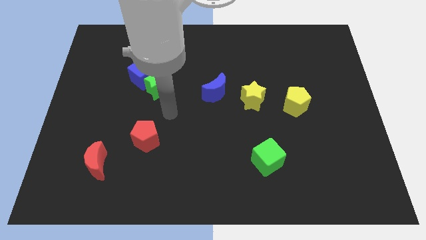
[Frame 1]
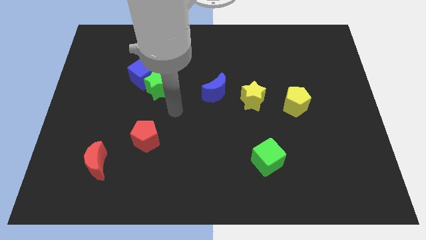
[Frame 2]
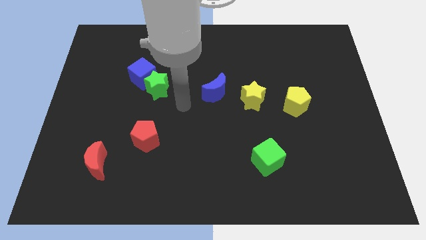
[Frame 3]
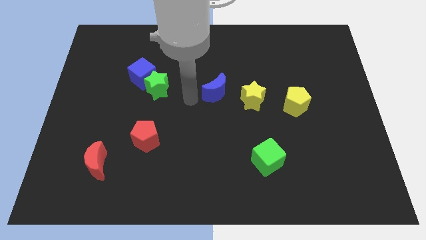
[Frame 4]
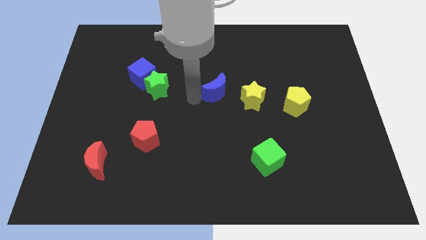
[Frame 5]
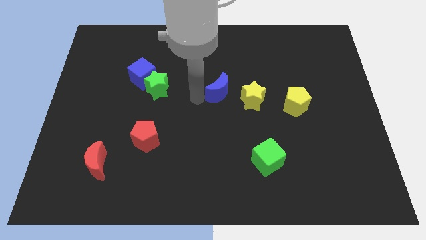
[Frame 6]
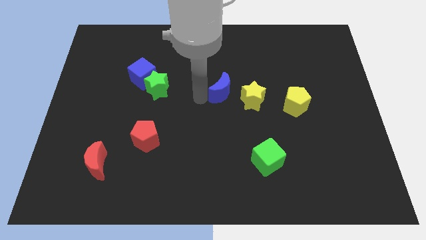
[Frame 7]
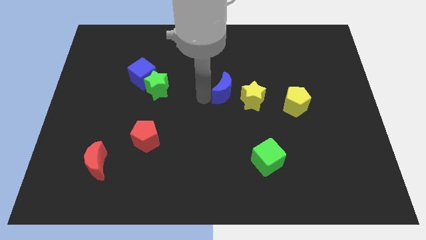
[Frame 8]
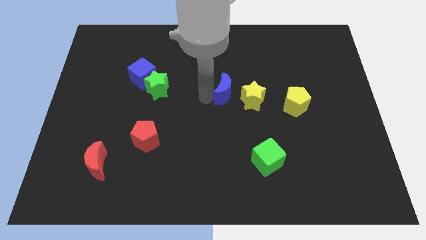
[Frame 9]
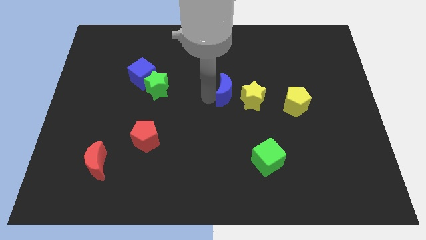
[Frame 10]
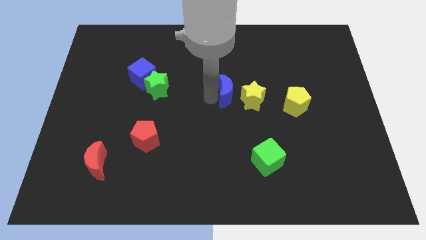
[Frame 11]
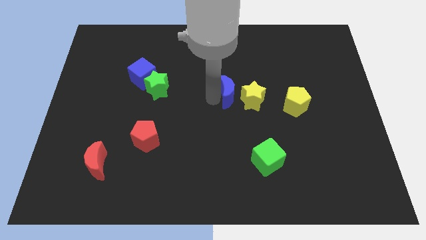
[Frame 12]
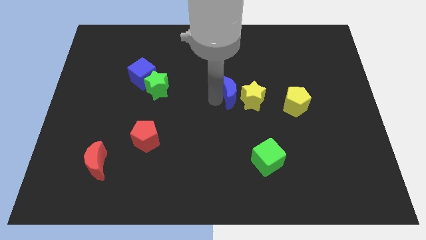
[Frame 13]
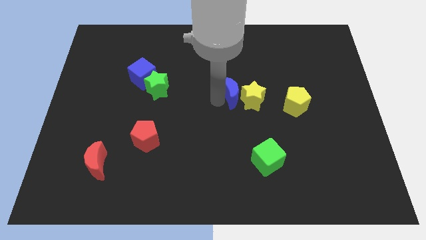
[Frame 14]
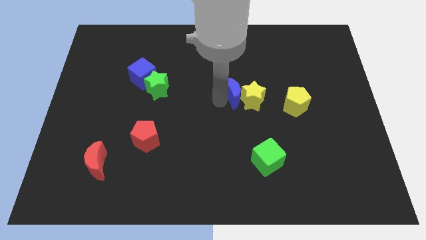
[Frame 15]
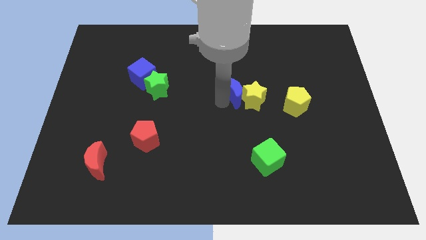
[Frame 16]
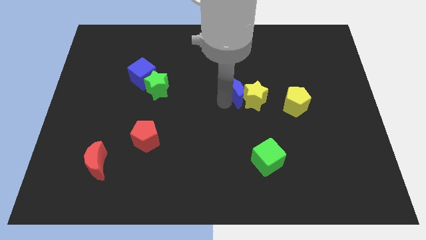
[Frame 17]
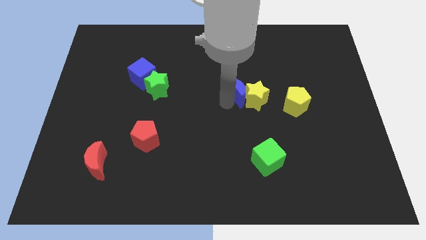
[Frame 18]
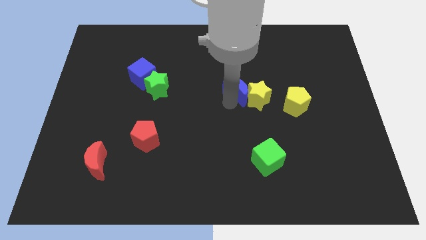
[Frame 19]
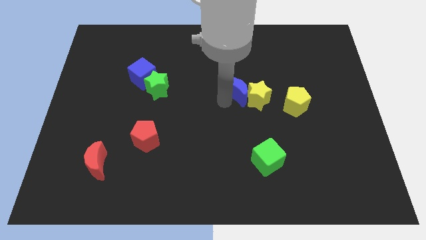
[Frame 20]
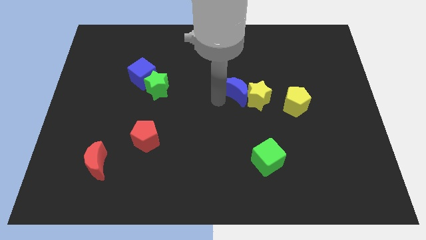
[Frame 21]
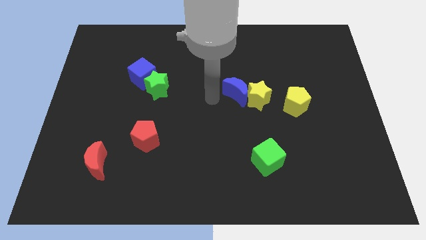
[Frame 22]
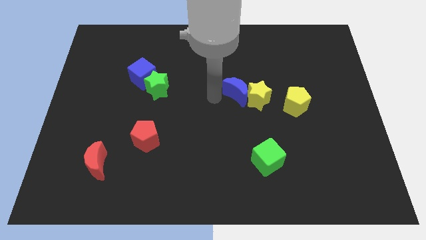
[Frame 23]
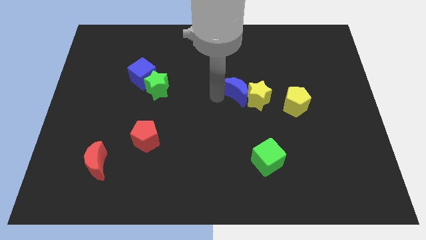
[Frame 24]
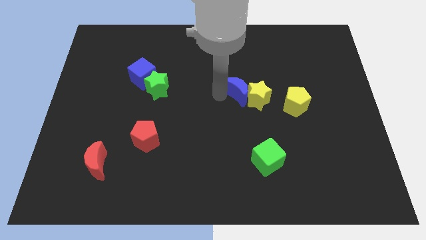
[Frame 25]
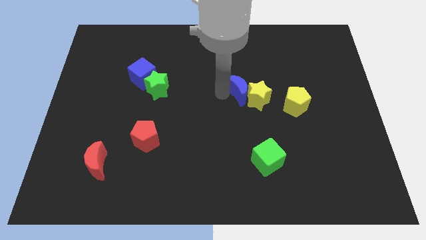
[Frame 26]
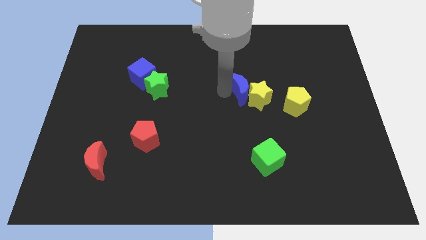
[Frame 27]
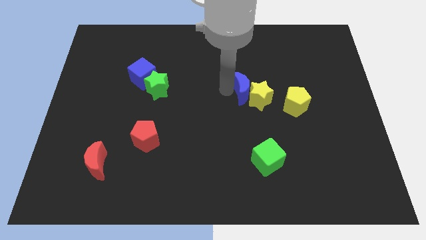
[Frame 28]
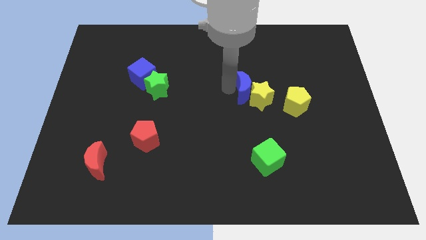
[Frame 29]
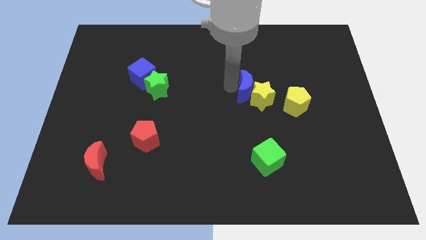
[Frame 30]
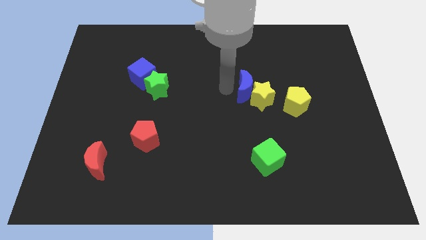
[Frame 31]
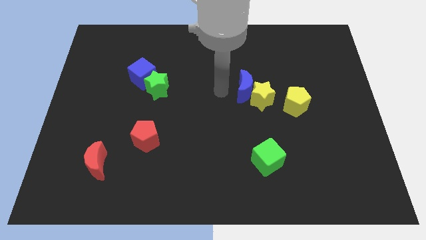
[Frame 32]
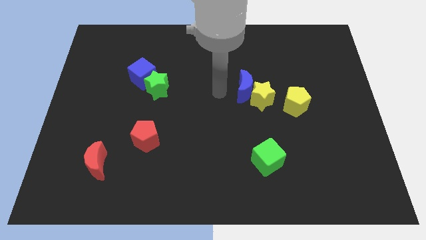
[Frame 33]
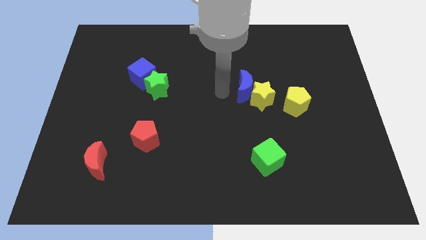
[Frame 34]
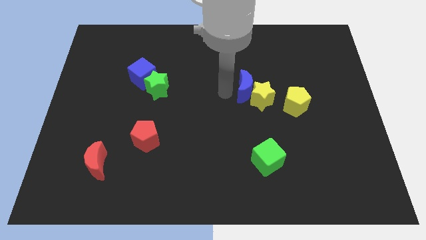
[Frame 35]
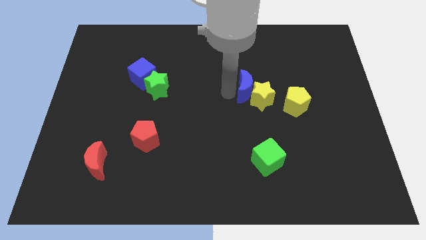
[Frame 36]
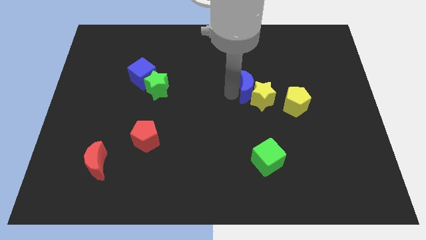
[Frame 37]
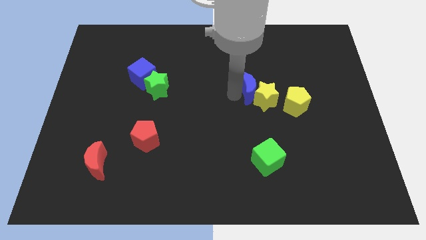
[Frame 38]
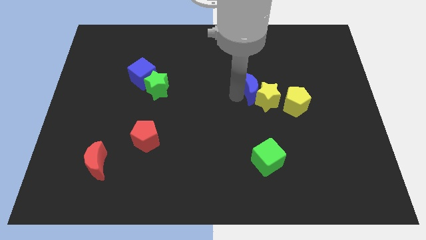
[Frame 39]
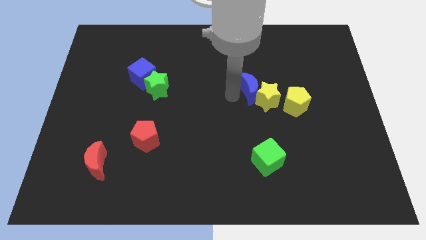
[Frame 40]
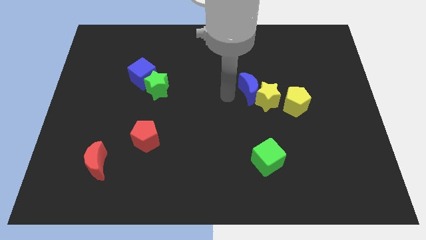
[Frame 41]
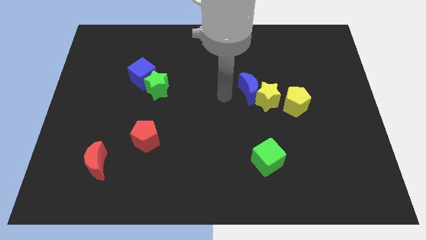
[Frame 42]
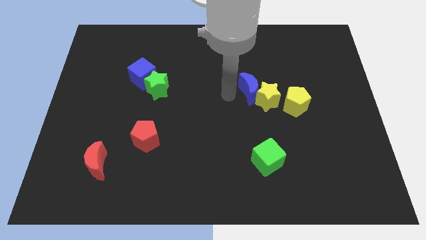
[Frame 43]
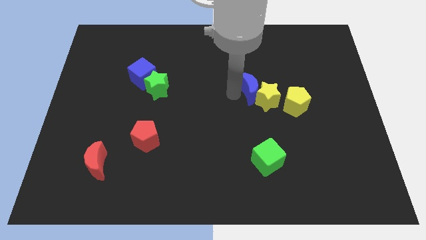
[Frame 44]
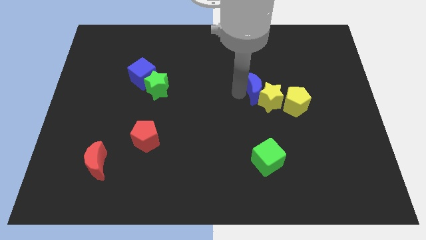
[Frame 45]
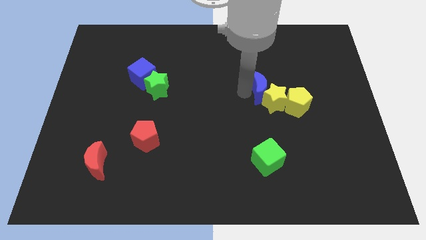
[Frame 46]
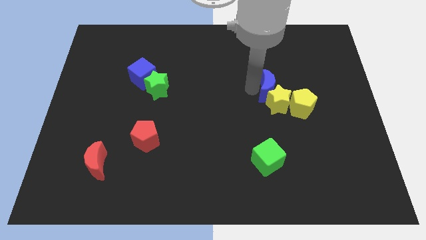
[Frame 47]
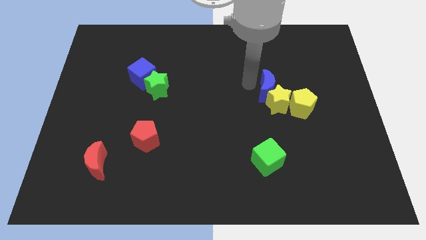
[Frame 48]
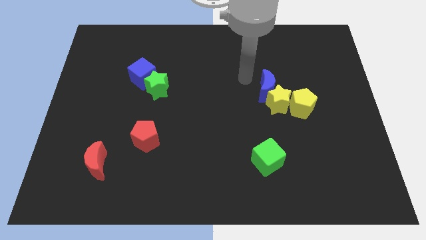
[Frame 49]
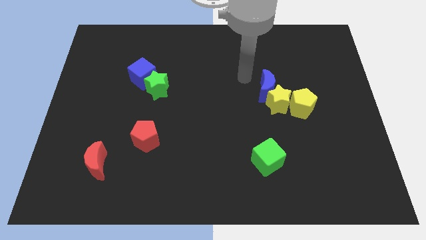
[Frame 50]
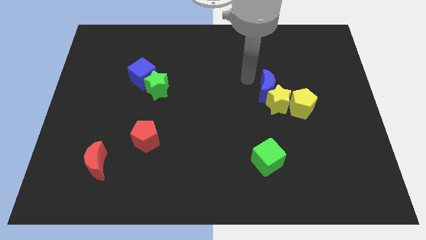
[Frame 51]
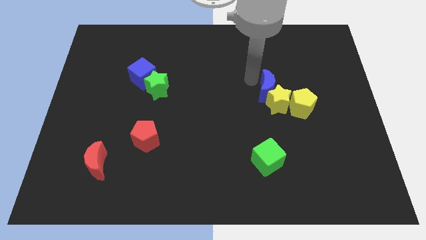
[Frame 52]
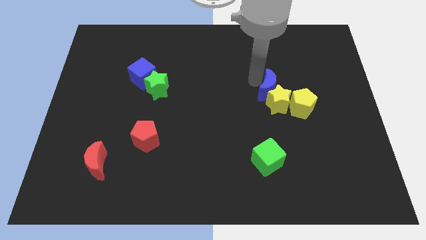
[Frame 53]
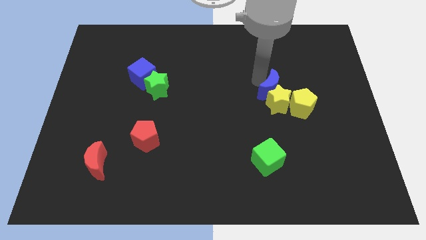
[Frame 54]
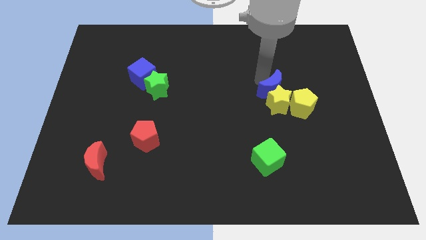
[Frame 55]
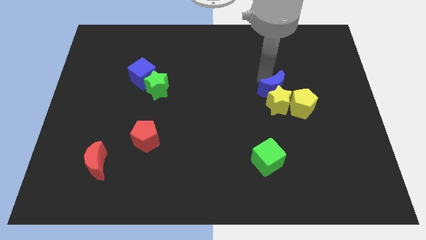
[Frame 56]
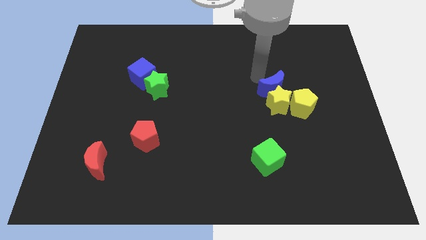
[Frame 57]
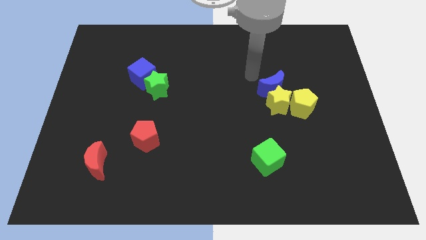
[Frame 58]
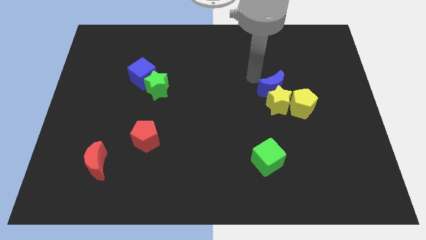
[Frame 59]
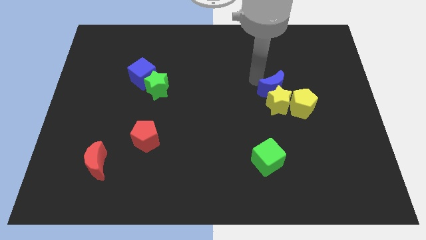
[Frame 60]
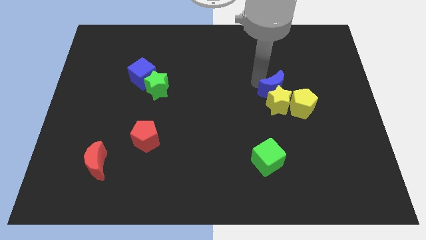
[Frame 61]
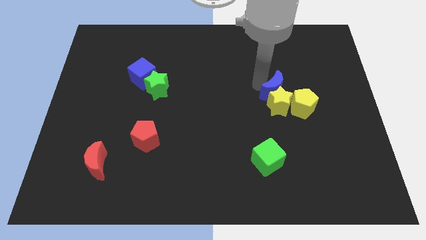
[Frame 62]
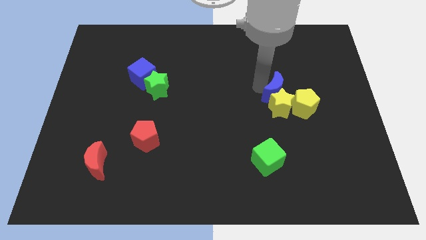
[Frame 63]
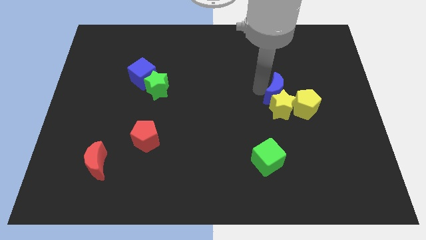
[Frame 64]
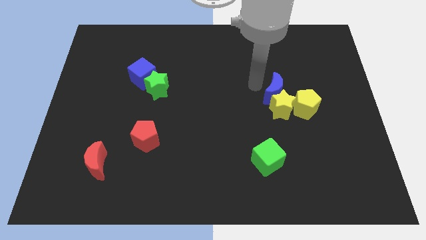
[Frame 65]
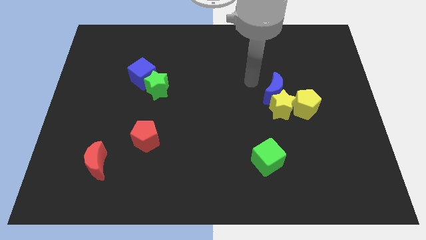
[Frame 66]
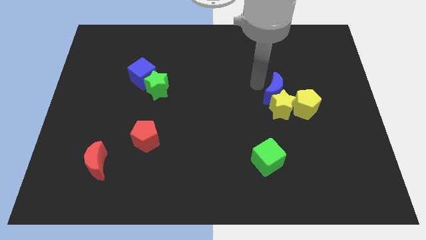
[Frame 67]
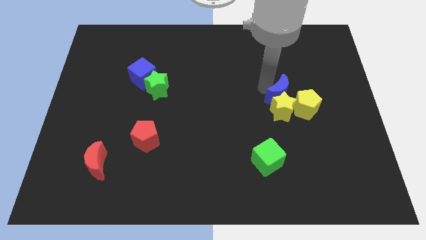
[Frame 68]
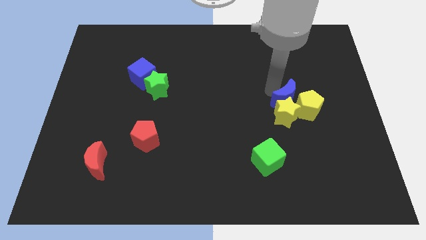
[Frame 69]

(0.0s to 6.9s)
slide the blue moon towards the yellow pentagon

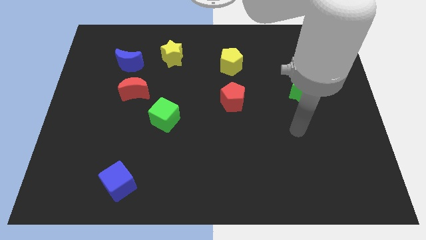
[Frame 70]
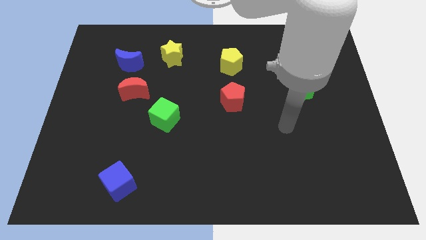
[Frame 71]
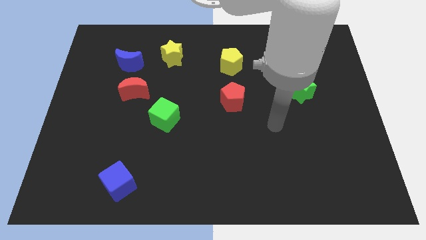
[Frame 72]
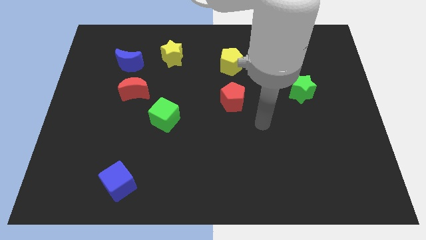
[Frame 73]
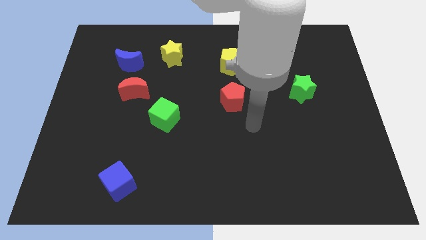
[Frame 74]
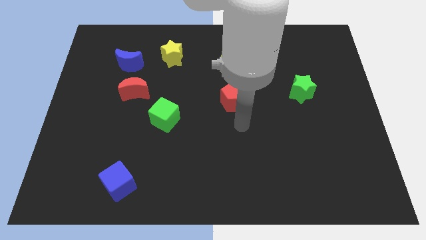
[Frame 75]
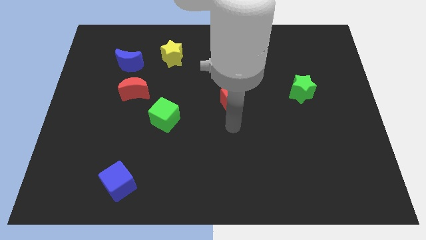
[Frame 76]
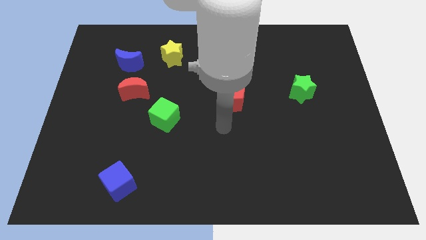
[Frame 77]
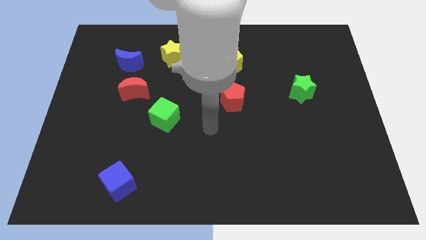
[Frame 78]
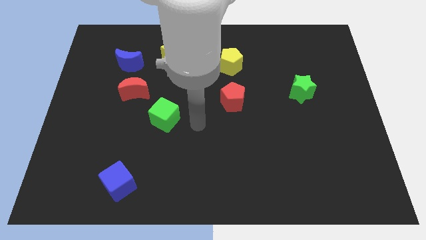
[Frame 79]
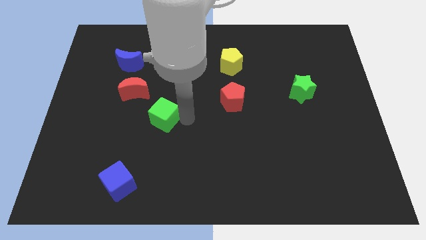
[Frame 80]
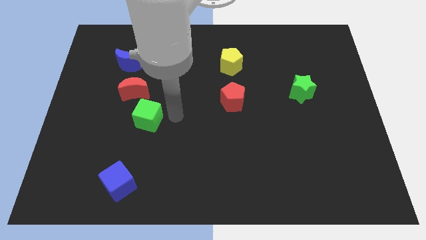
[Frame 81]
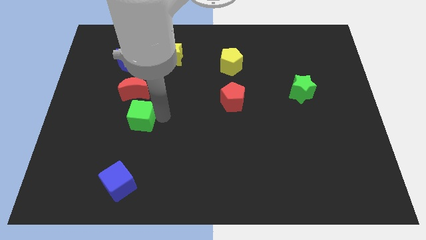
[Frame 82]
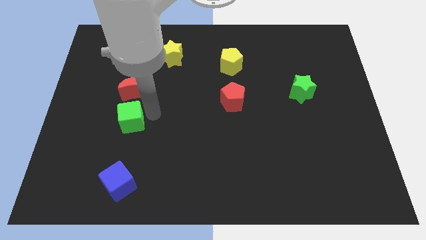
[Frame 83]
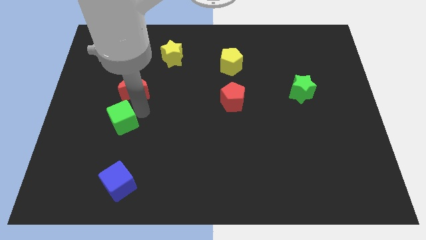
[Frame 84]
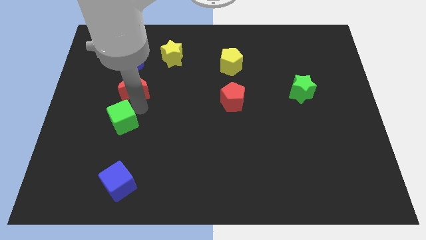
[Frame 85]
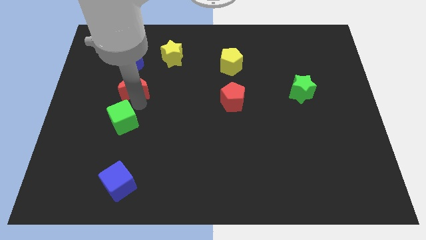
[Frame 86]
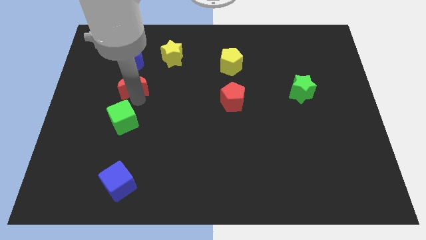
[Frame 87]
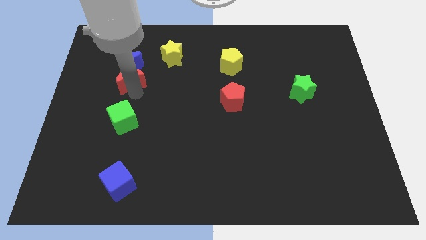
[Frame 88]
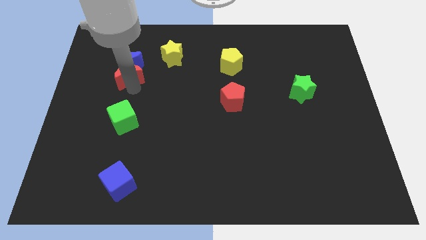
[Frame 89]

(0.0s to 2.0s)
push the red moon next to the blue moon
